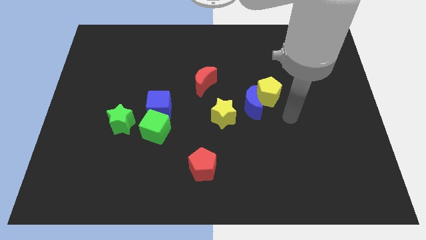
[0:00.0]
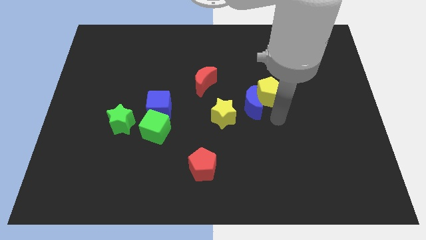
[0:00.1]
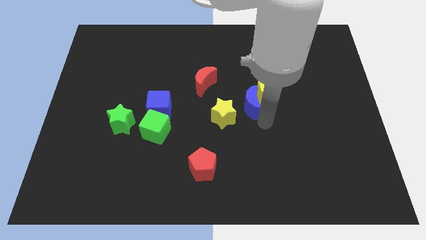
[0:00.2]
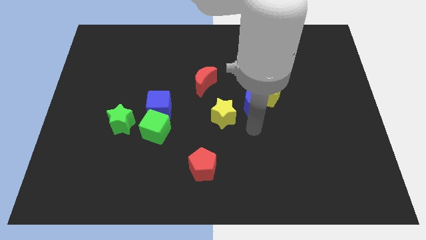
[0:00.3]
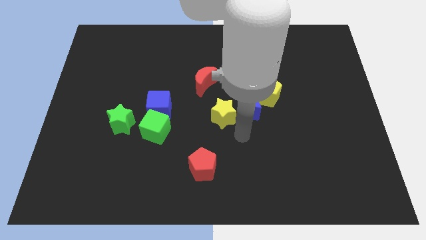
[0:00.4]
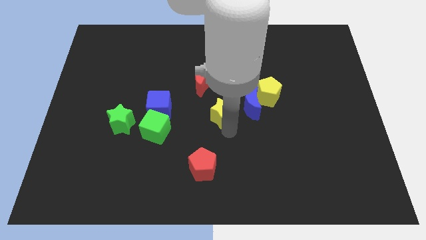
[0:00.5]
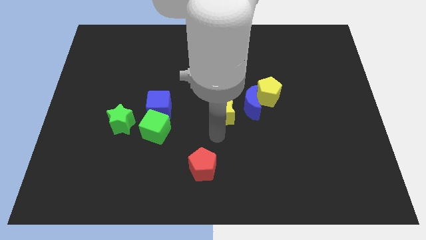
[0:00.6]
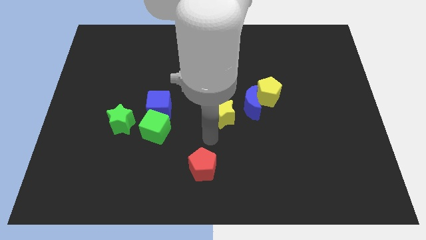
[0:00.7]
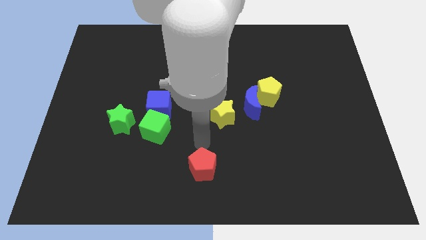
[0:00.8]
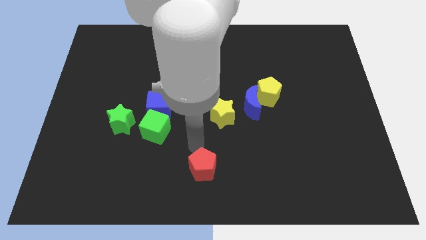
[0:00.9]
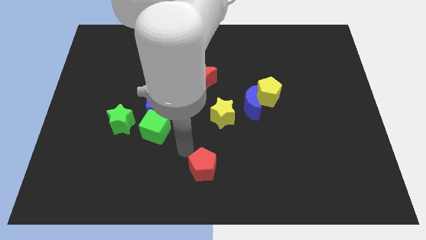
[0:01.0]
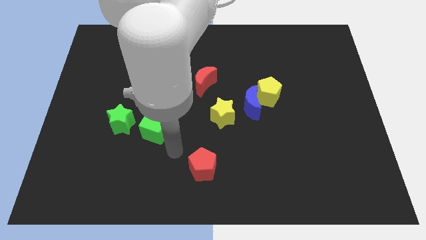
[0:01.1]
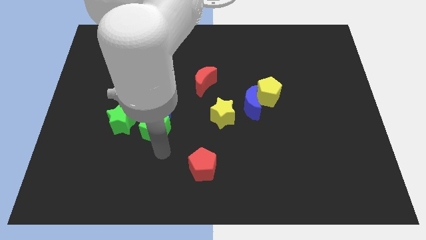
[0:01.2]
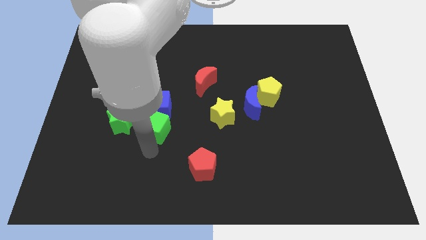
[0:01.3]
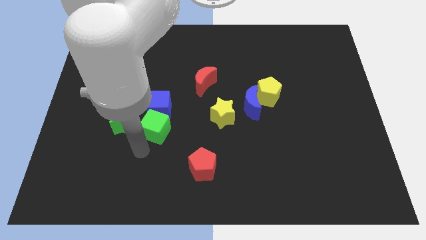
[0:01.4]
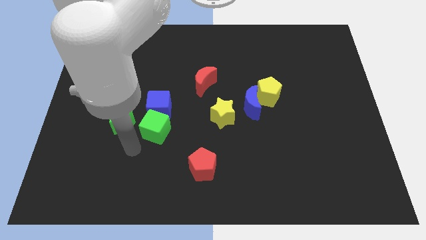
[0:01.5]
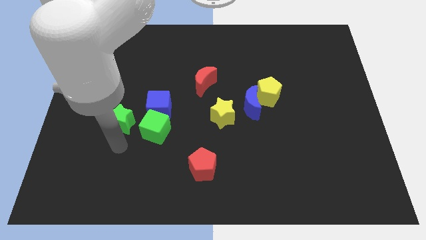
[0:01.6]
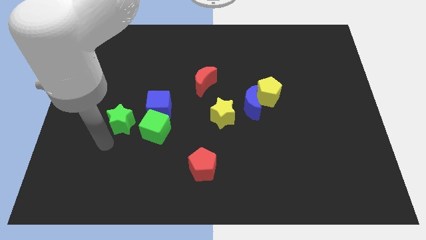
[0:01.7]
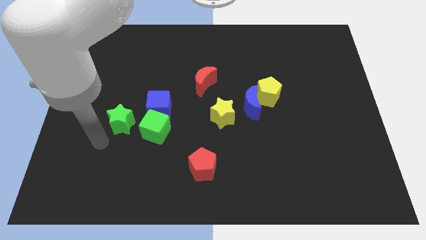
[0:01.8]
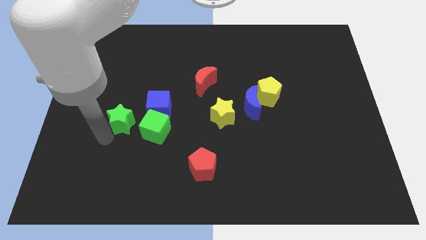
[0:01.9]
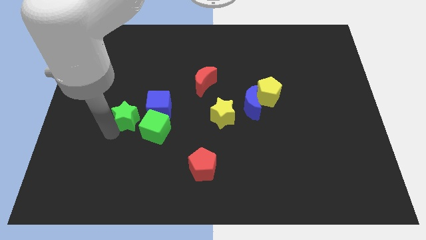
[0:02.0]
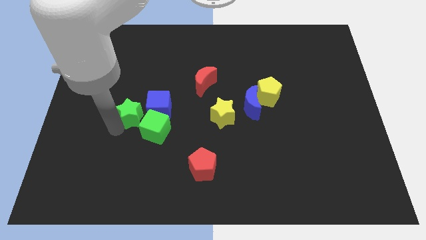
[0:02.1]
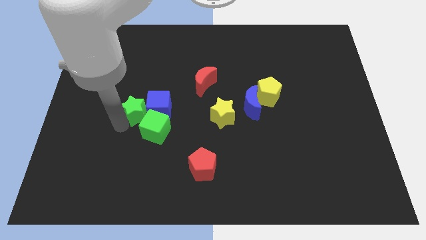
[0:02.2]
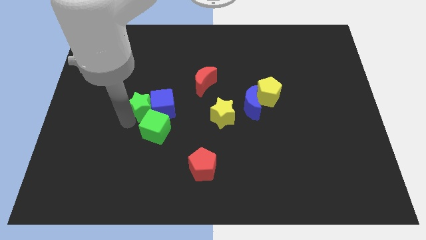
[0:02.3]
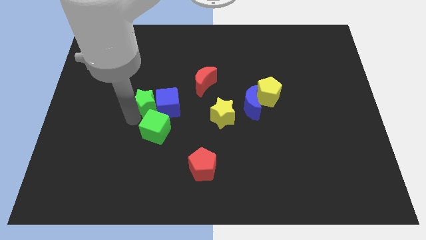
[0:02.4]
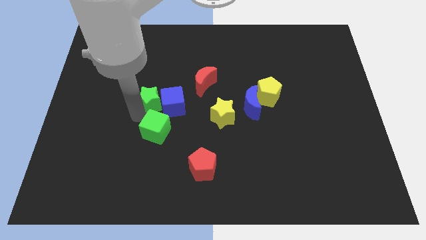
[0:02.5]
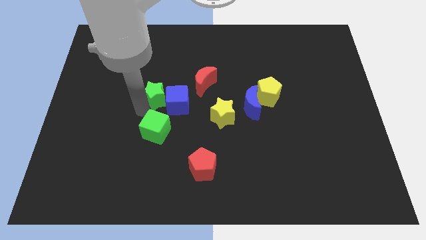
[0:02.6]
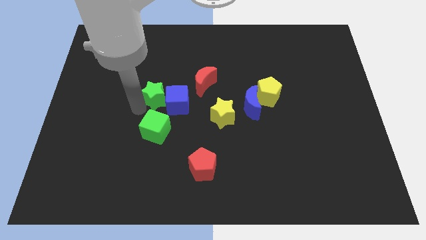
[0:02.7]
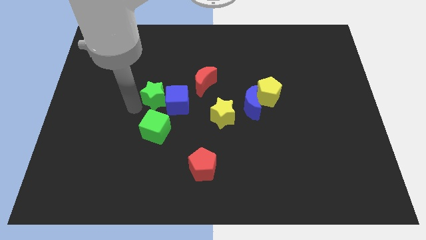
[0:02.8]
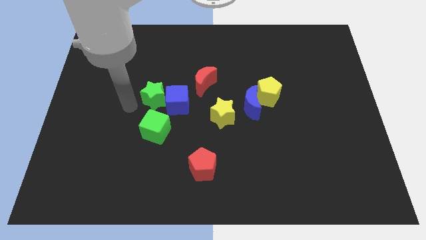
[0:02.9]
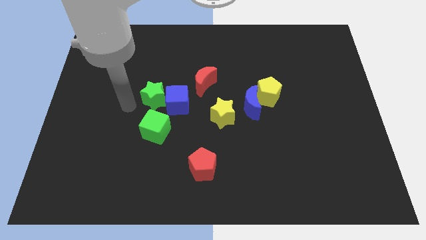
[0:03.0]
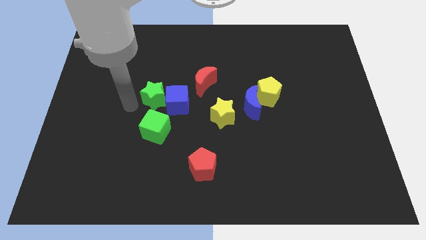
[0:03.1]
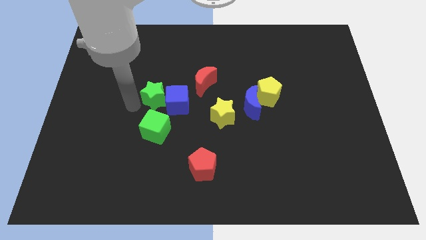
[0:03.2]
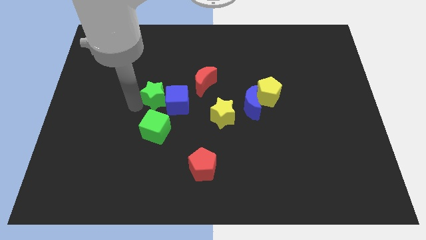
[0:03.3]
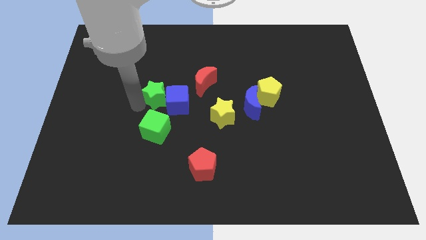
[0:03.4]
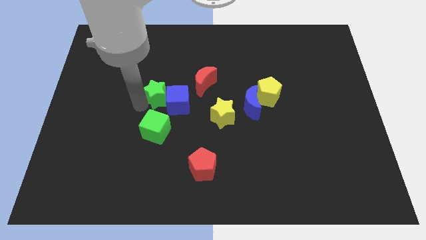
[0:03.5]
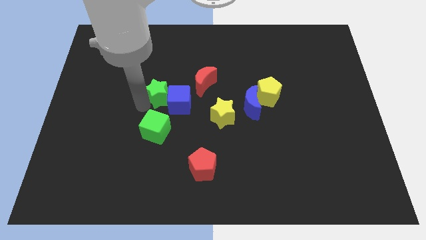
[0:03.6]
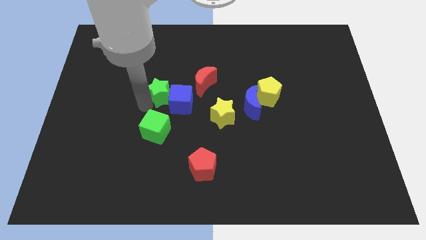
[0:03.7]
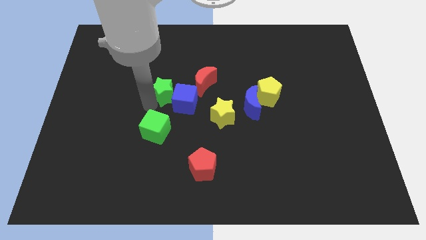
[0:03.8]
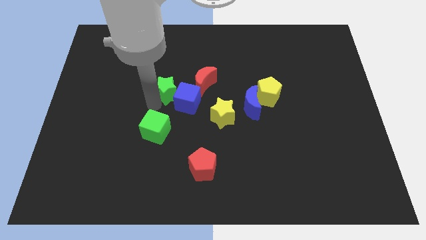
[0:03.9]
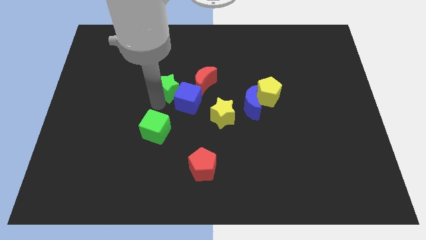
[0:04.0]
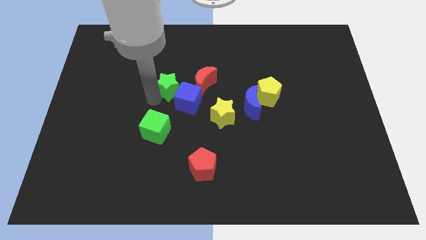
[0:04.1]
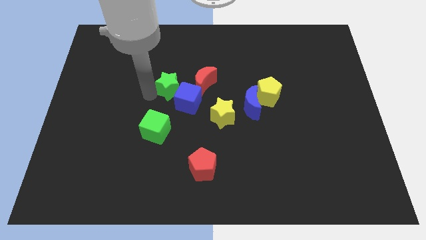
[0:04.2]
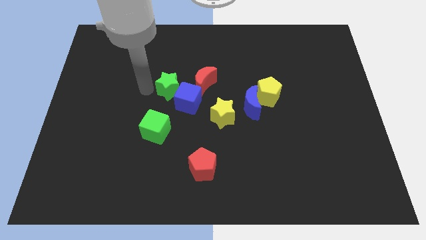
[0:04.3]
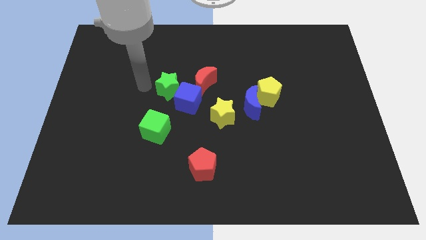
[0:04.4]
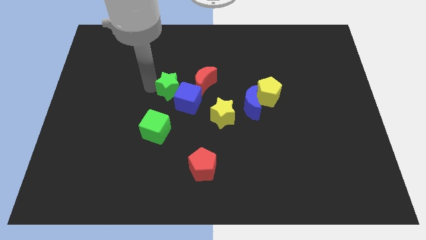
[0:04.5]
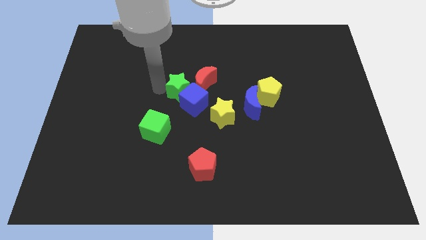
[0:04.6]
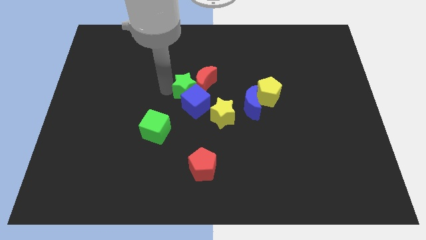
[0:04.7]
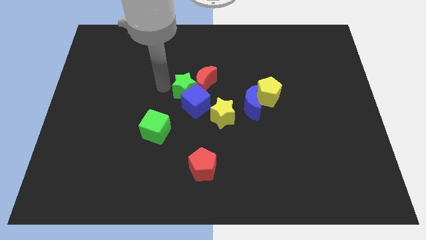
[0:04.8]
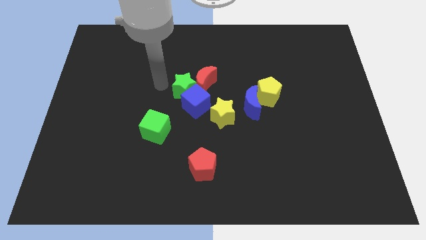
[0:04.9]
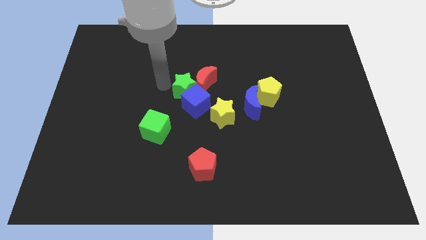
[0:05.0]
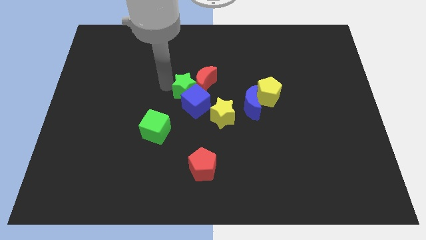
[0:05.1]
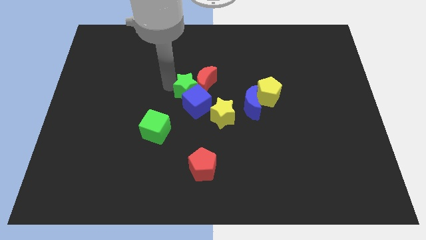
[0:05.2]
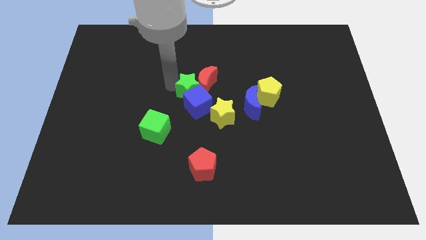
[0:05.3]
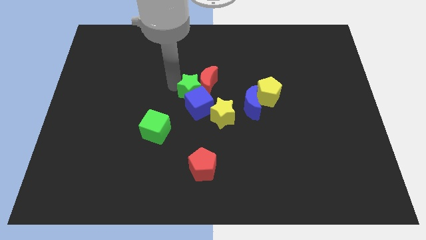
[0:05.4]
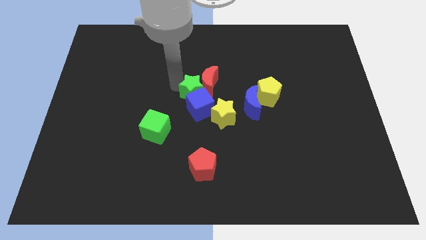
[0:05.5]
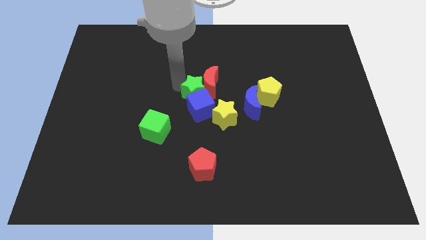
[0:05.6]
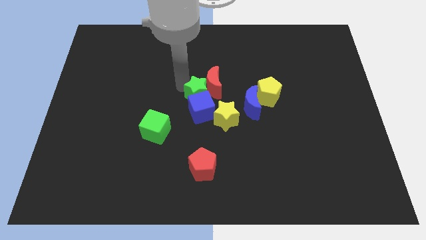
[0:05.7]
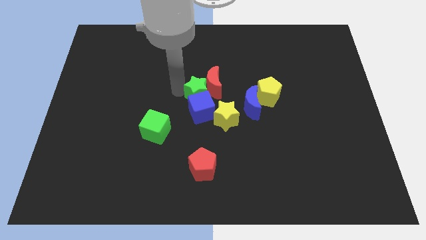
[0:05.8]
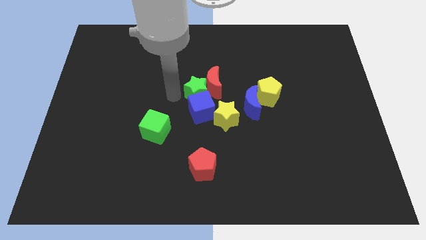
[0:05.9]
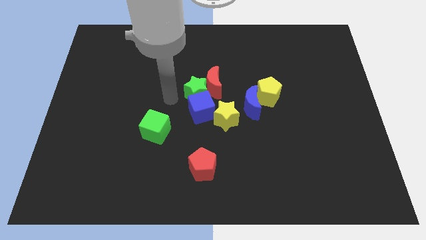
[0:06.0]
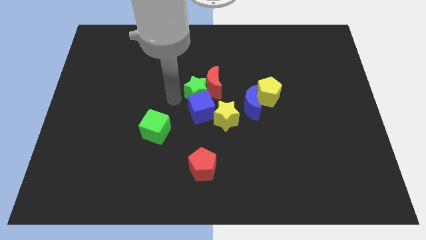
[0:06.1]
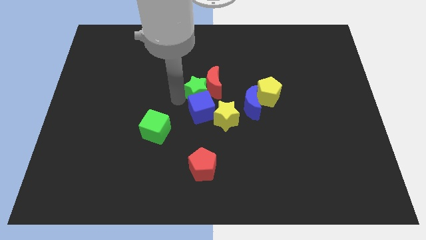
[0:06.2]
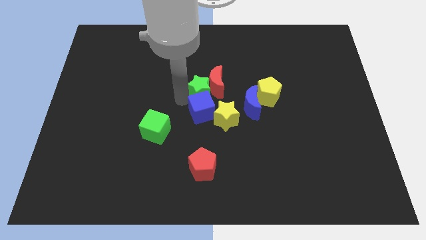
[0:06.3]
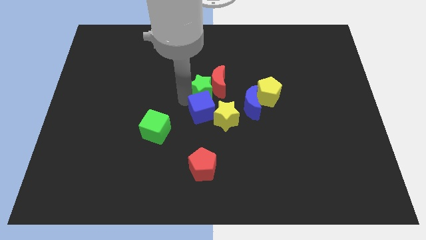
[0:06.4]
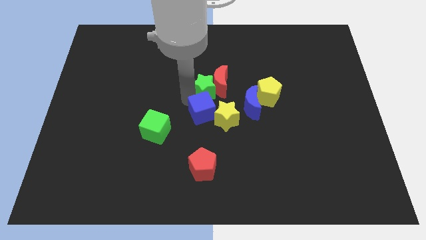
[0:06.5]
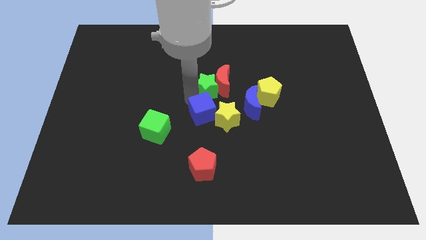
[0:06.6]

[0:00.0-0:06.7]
put the green star to the top left side of the blue moon
